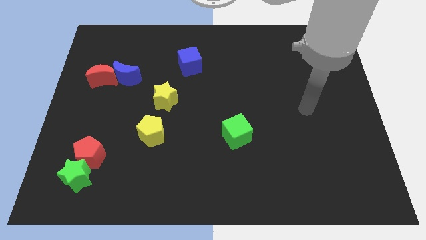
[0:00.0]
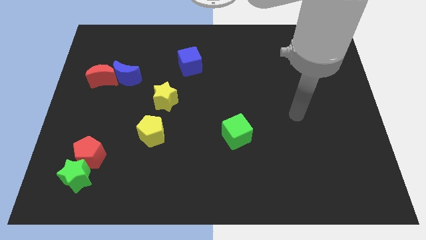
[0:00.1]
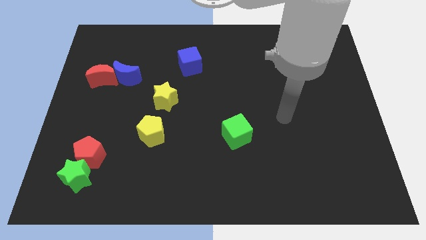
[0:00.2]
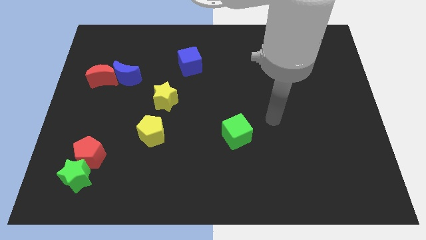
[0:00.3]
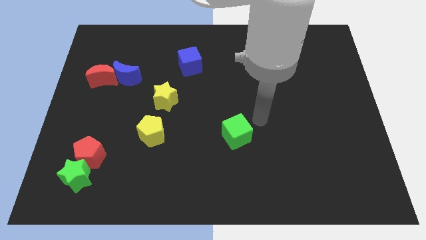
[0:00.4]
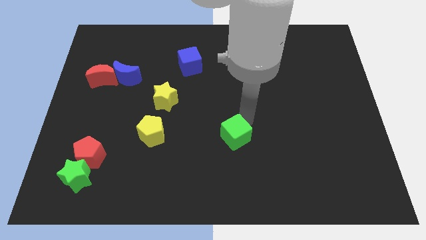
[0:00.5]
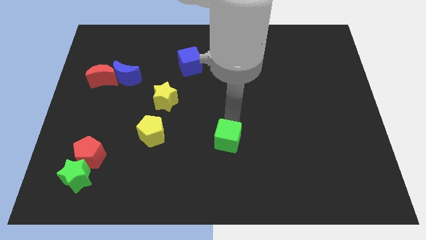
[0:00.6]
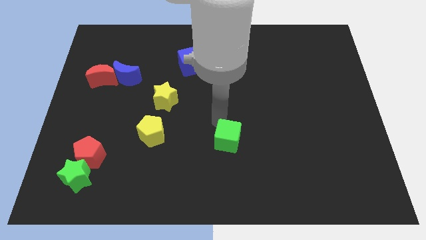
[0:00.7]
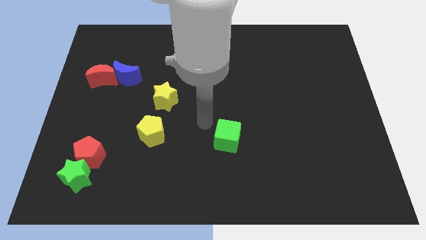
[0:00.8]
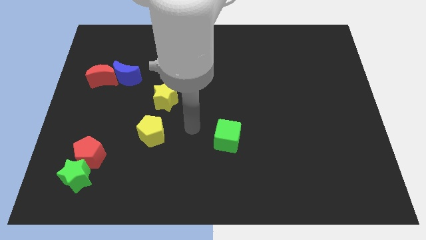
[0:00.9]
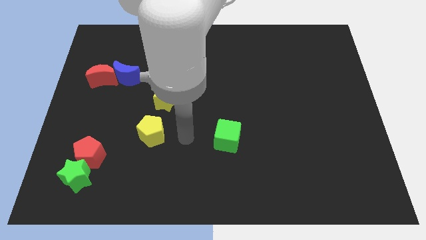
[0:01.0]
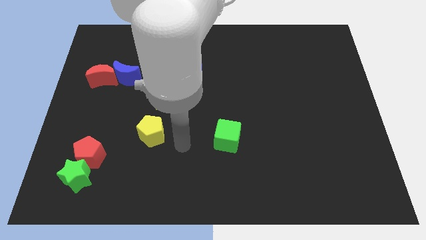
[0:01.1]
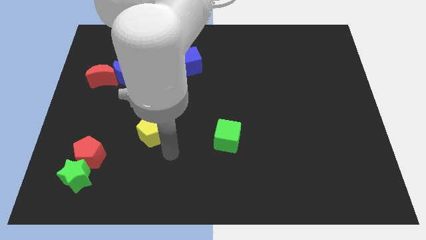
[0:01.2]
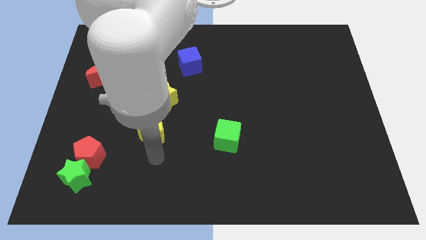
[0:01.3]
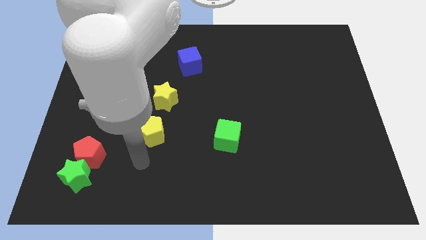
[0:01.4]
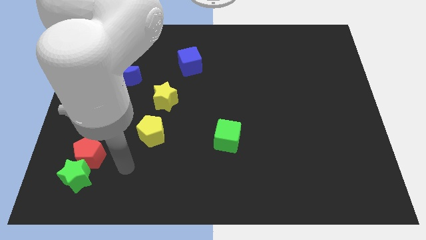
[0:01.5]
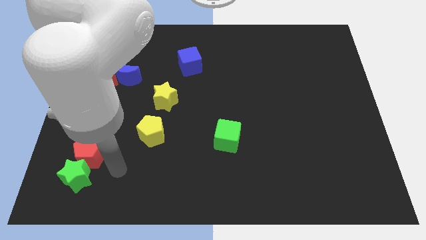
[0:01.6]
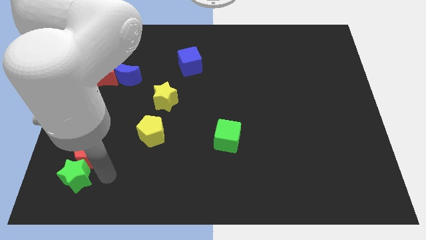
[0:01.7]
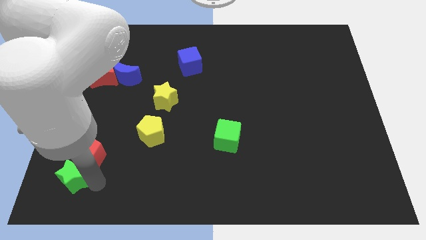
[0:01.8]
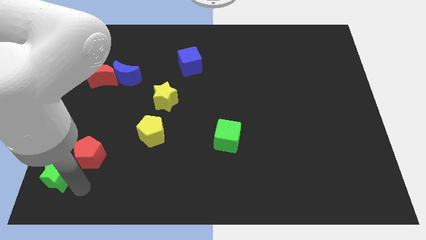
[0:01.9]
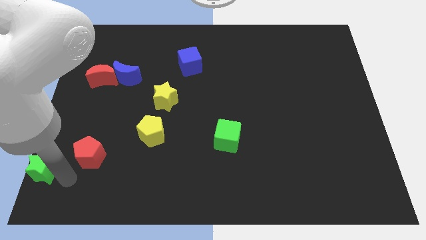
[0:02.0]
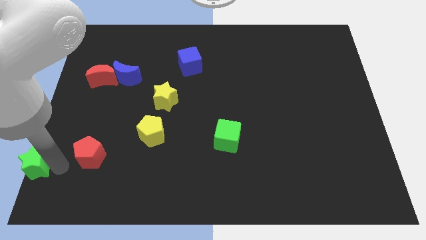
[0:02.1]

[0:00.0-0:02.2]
pull the red pentagon apart from the green star

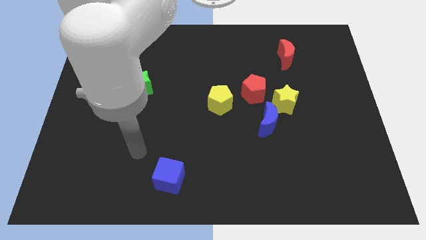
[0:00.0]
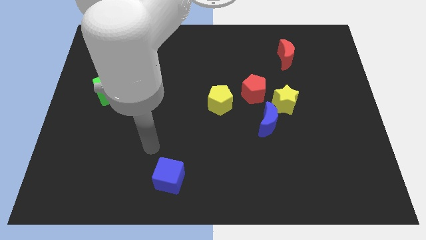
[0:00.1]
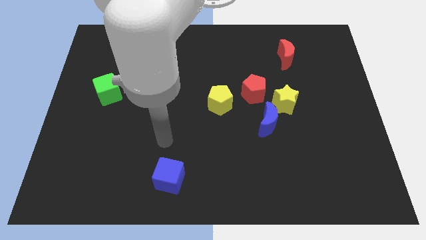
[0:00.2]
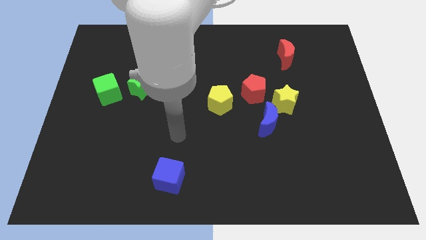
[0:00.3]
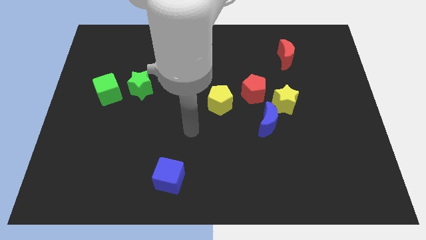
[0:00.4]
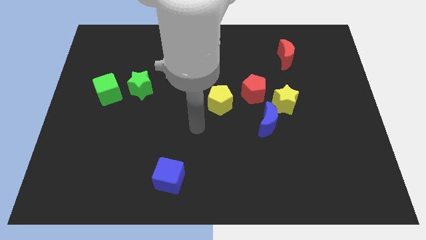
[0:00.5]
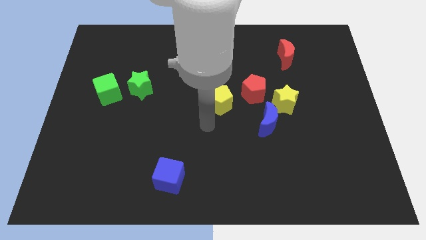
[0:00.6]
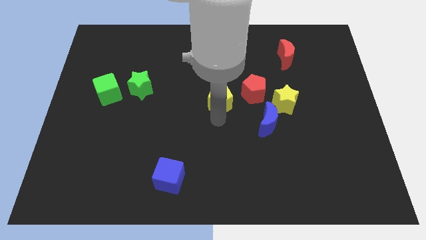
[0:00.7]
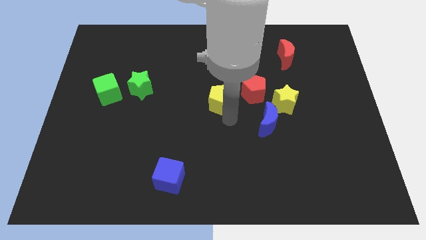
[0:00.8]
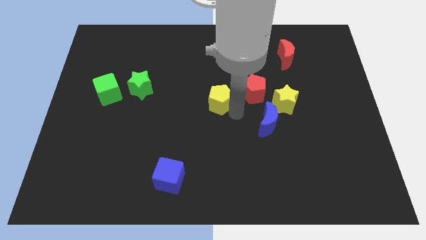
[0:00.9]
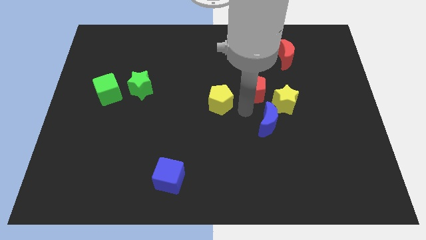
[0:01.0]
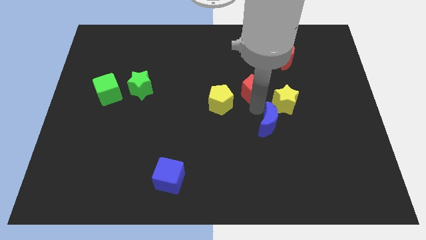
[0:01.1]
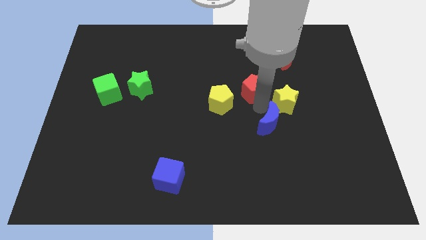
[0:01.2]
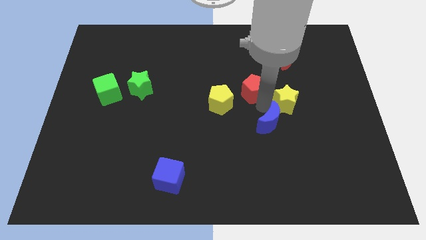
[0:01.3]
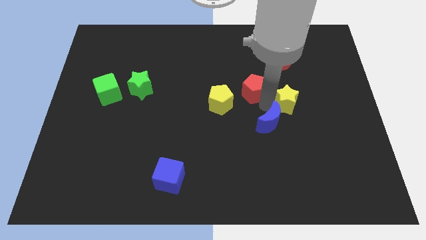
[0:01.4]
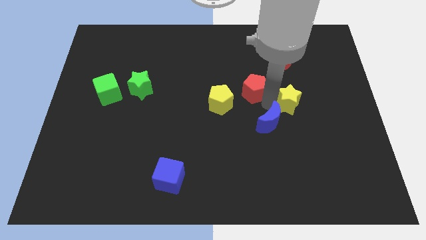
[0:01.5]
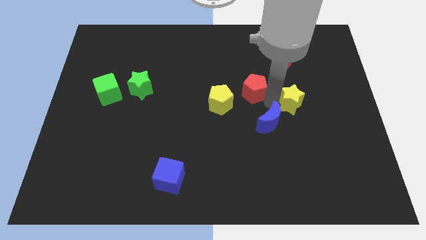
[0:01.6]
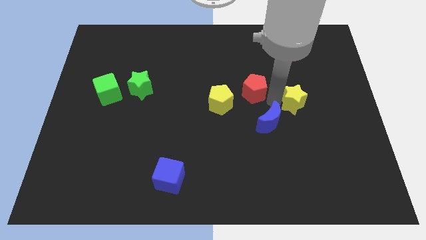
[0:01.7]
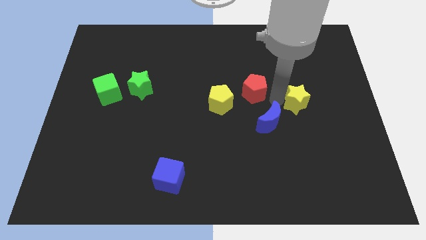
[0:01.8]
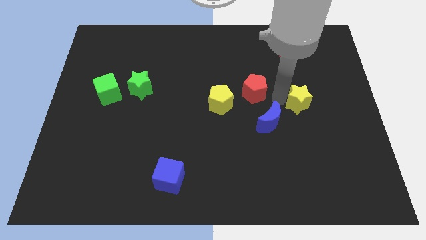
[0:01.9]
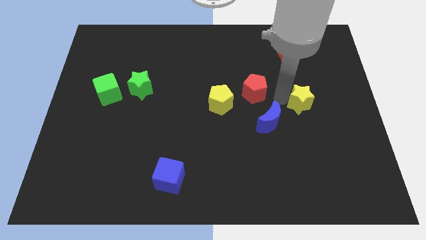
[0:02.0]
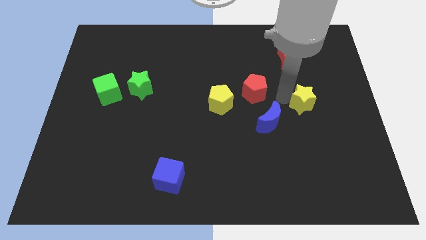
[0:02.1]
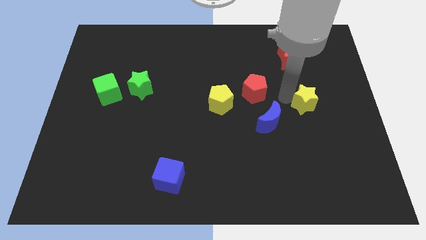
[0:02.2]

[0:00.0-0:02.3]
move the yellow star away from the blue moon and red pentagon

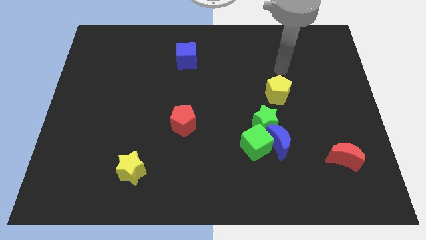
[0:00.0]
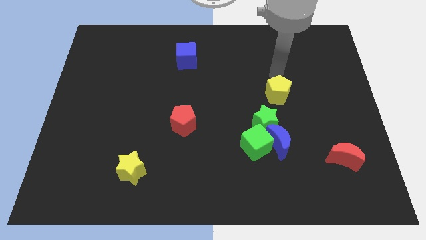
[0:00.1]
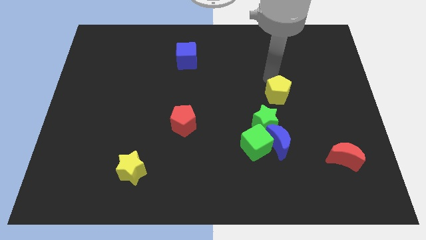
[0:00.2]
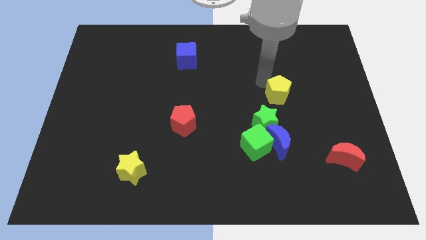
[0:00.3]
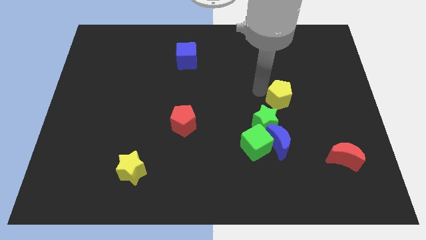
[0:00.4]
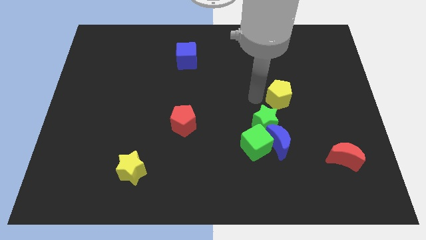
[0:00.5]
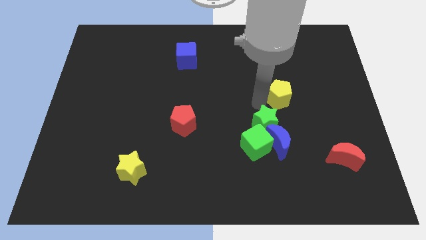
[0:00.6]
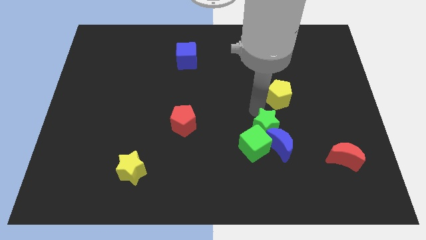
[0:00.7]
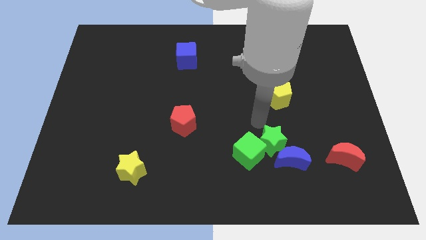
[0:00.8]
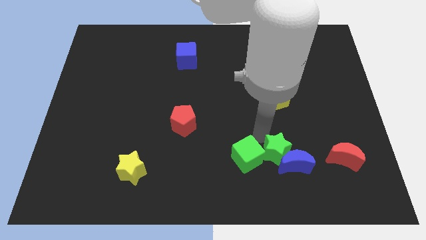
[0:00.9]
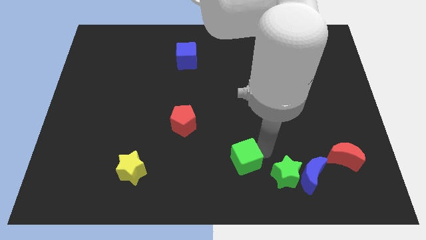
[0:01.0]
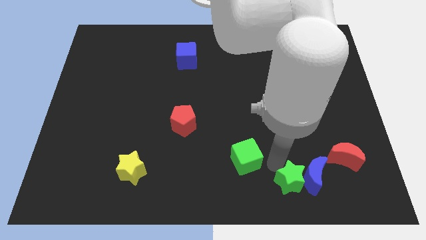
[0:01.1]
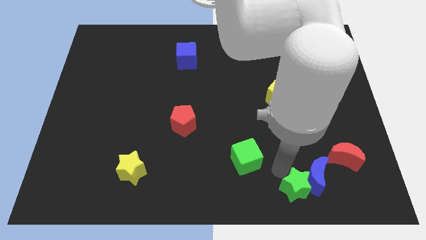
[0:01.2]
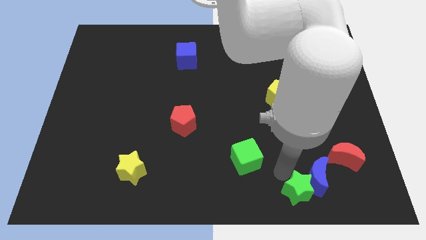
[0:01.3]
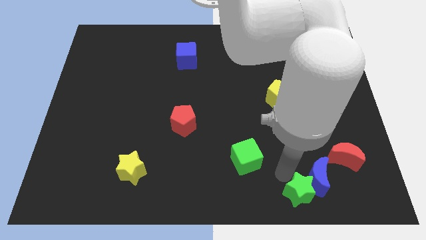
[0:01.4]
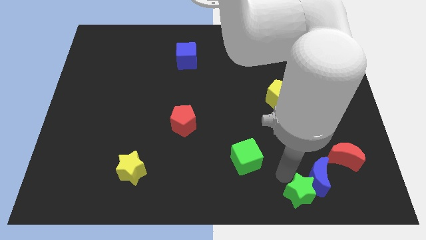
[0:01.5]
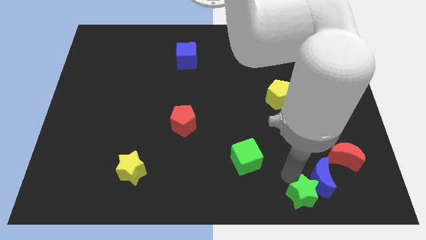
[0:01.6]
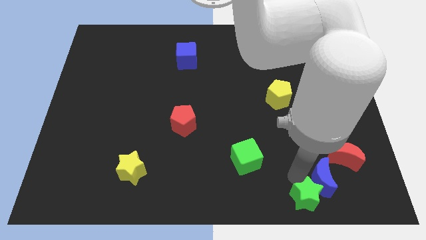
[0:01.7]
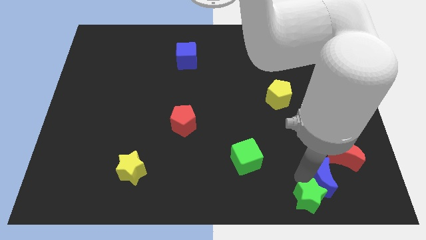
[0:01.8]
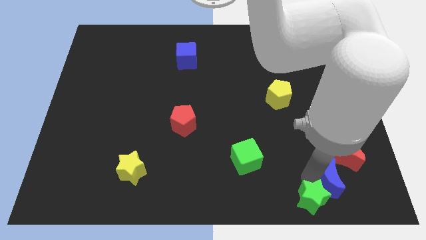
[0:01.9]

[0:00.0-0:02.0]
pull the blue moon apart from the green cube and green star

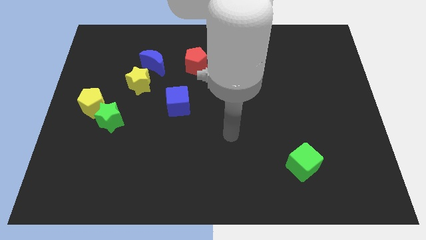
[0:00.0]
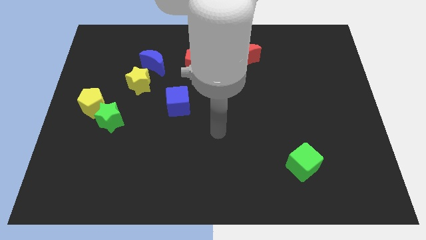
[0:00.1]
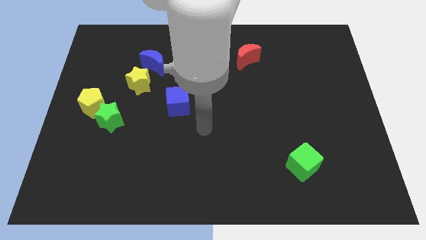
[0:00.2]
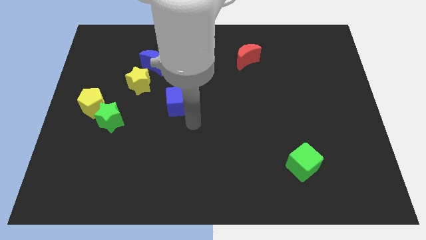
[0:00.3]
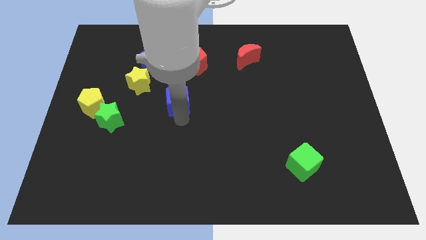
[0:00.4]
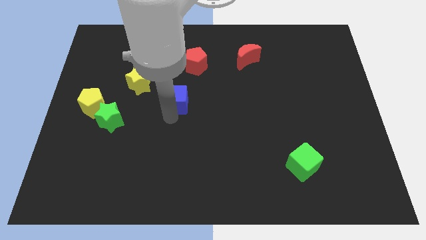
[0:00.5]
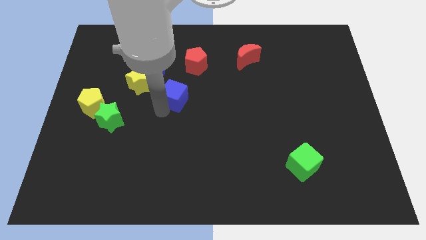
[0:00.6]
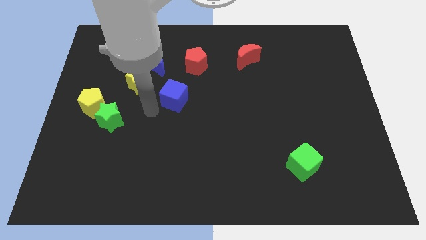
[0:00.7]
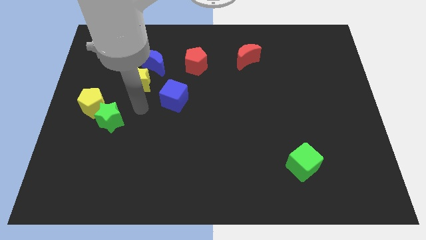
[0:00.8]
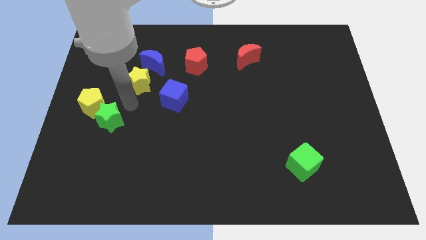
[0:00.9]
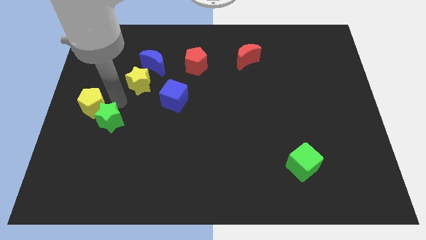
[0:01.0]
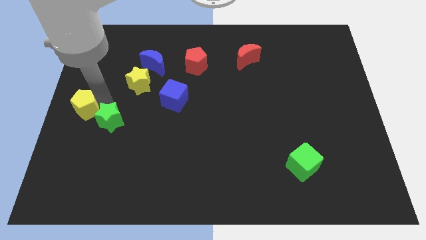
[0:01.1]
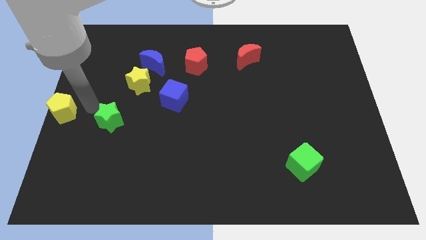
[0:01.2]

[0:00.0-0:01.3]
pull the green star apart from the yellow pentagon

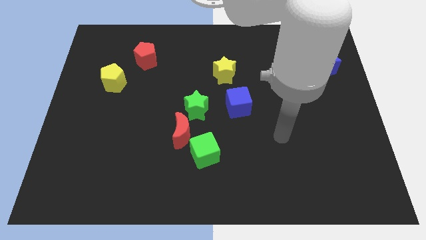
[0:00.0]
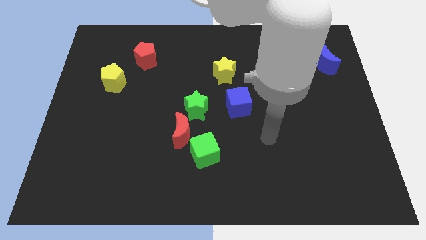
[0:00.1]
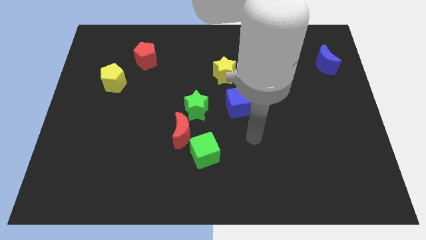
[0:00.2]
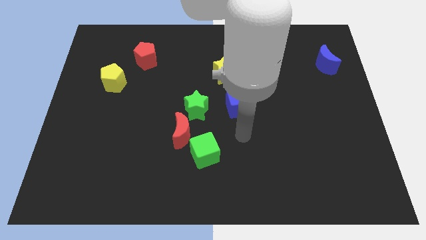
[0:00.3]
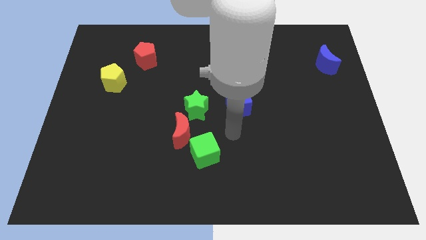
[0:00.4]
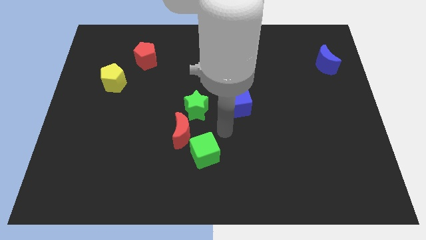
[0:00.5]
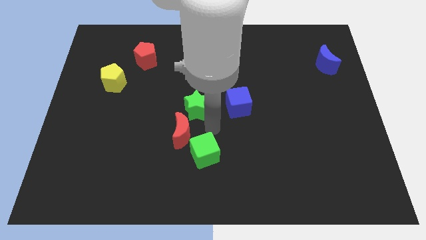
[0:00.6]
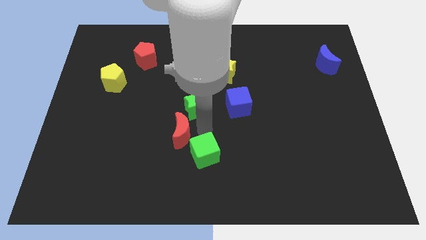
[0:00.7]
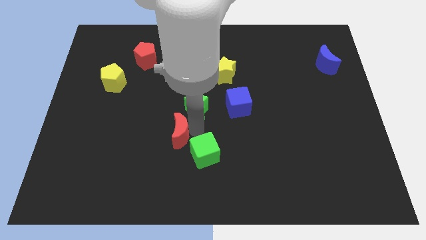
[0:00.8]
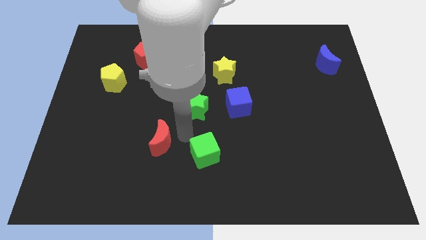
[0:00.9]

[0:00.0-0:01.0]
separate the green cube from the red moon

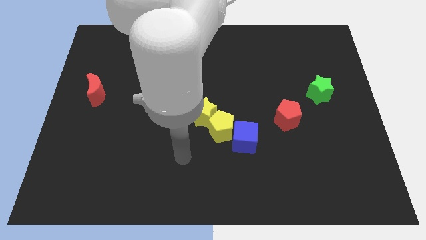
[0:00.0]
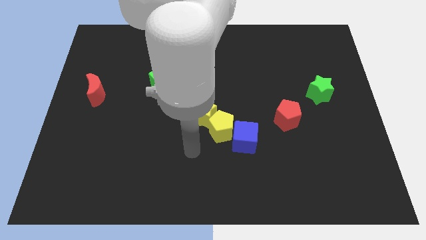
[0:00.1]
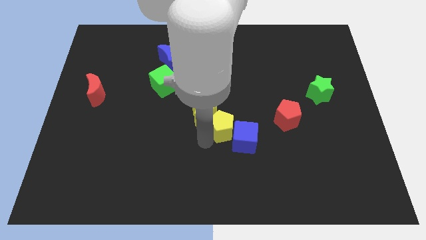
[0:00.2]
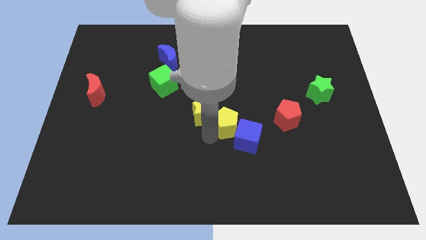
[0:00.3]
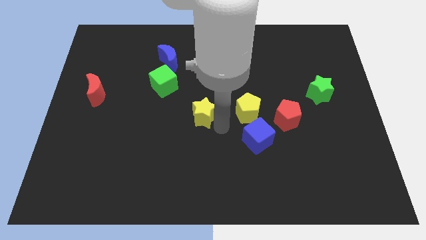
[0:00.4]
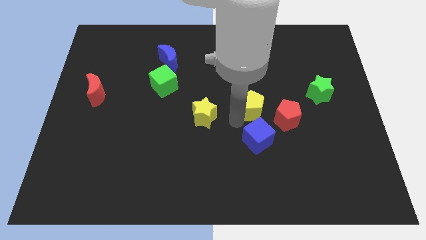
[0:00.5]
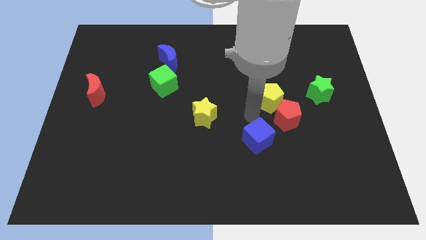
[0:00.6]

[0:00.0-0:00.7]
separate the blue cube from the yellow pentagon
